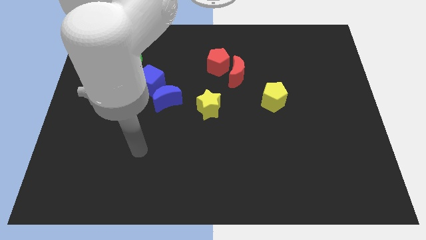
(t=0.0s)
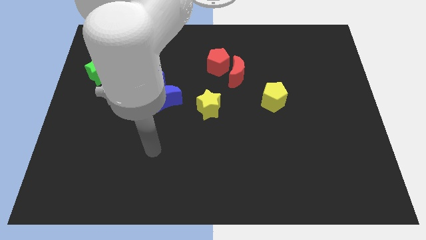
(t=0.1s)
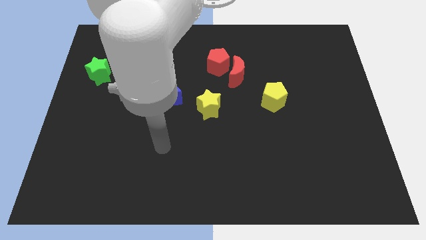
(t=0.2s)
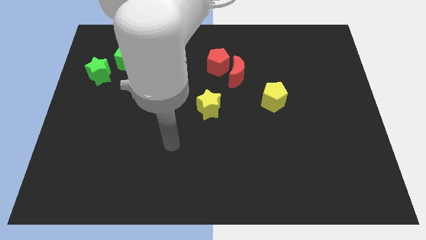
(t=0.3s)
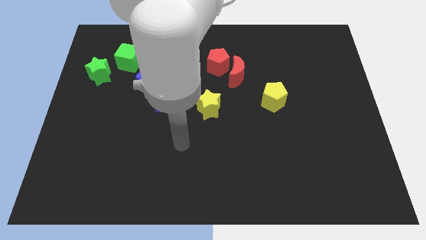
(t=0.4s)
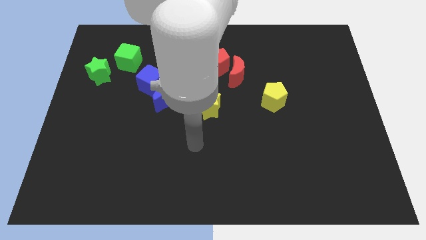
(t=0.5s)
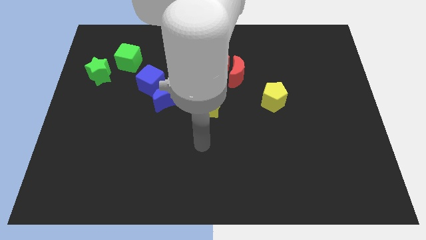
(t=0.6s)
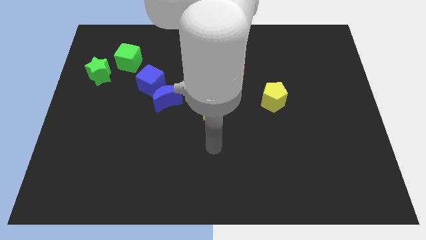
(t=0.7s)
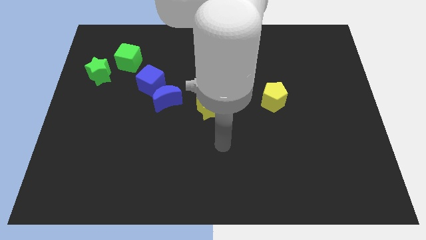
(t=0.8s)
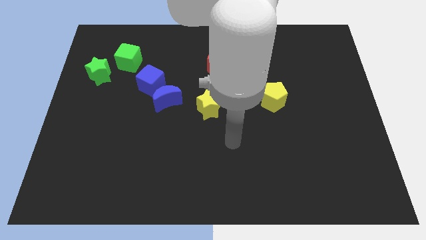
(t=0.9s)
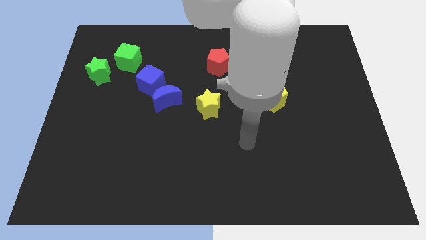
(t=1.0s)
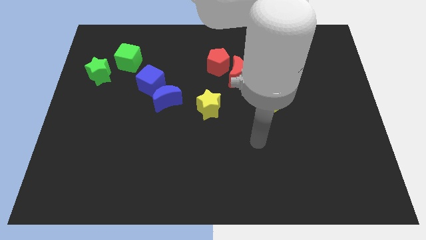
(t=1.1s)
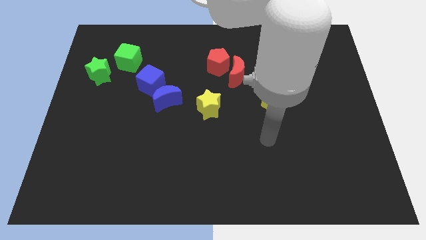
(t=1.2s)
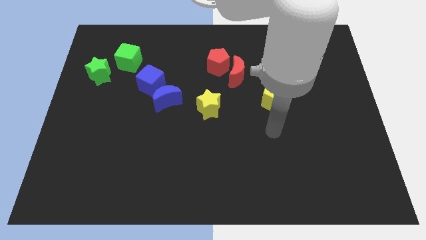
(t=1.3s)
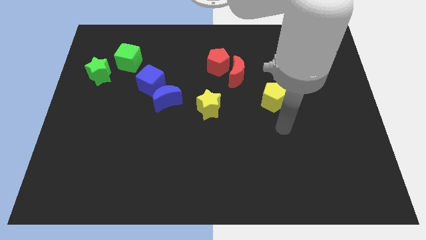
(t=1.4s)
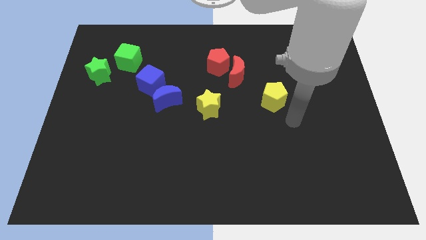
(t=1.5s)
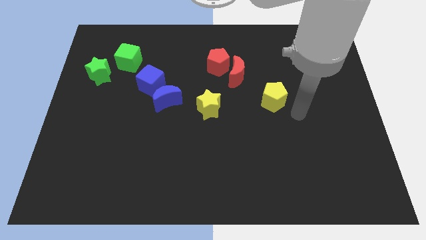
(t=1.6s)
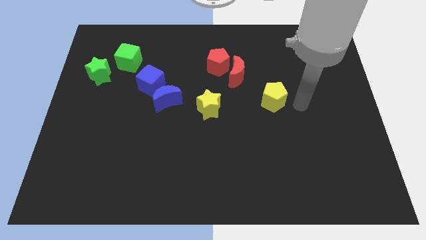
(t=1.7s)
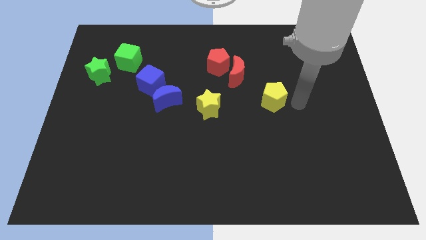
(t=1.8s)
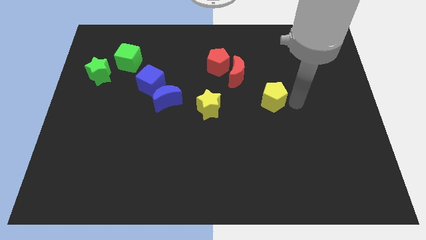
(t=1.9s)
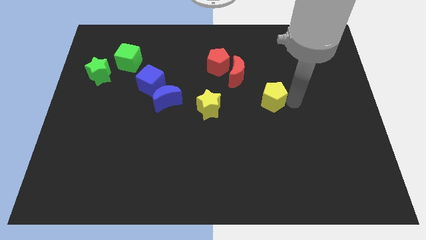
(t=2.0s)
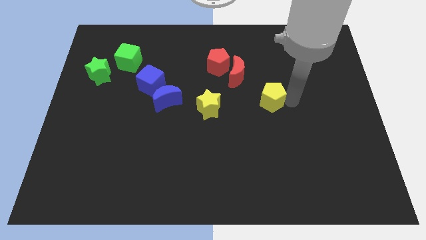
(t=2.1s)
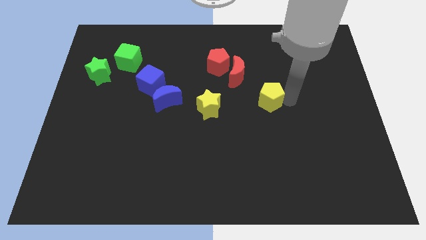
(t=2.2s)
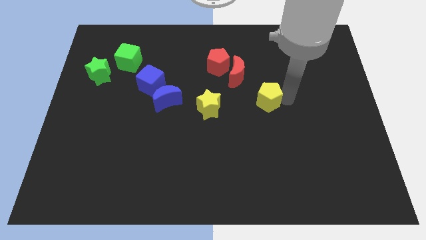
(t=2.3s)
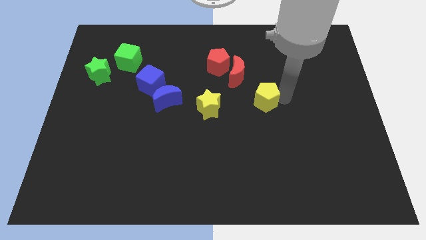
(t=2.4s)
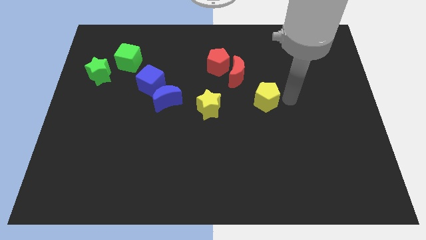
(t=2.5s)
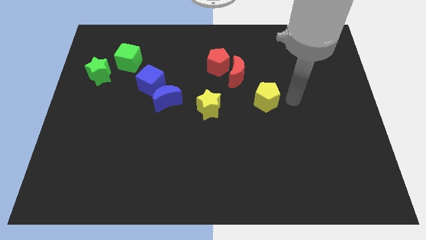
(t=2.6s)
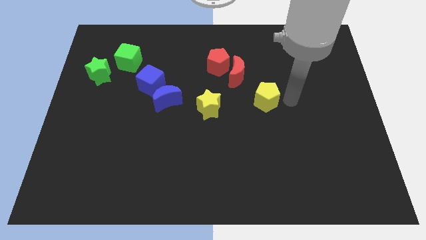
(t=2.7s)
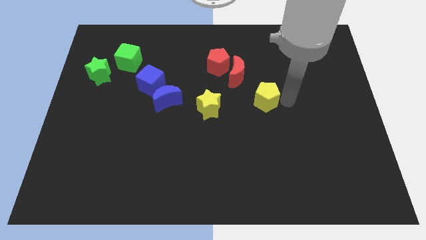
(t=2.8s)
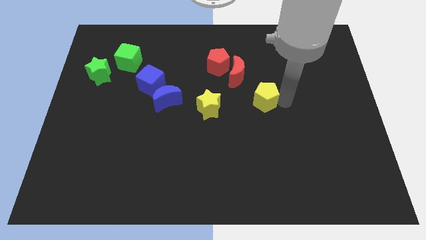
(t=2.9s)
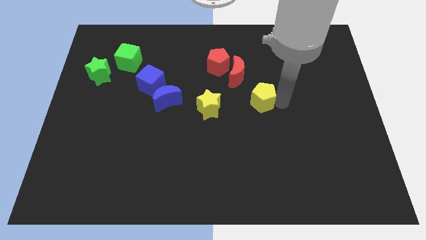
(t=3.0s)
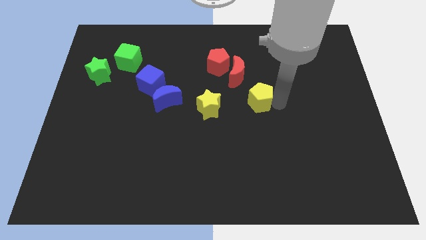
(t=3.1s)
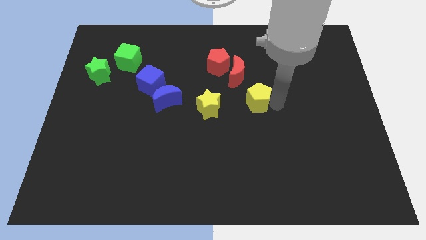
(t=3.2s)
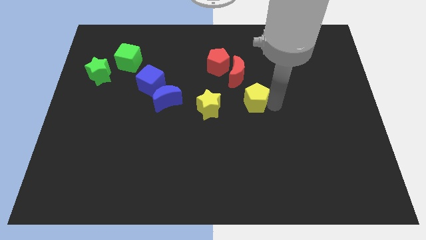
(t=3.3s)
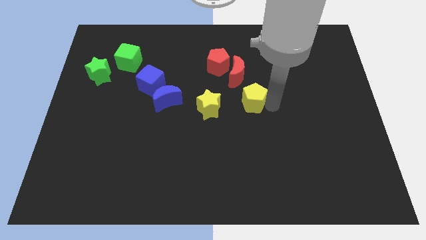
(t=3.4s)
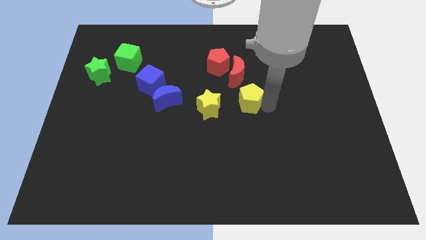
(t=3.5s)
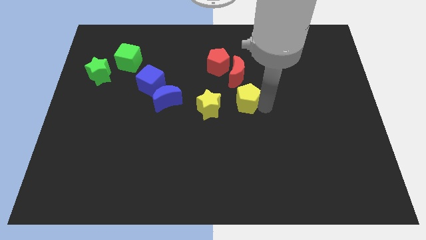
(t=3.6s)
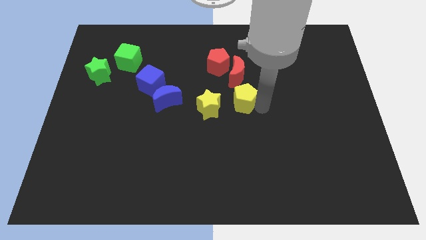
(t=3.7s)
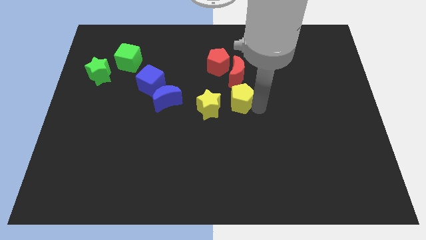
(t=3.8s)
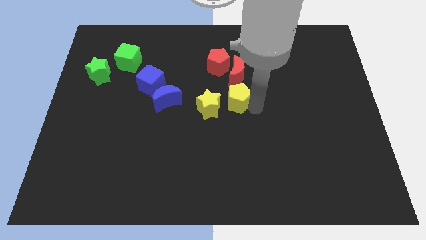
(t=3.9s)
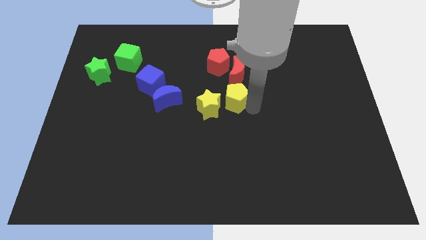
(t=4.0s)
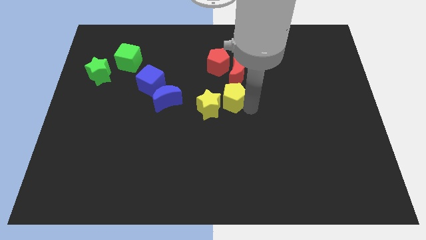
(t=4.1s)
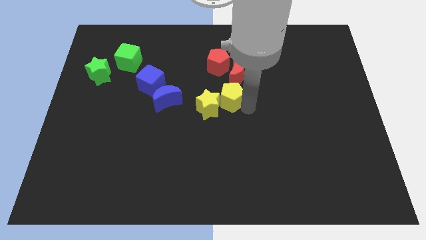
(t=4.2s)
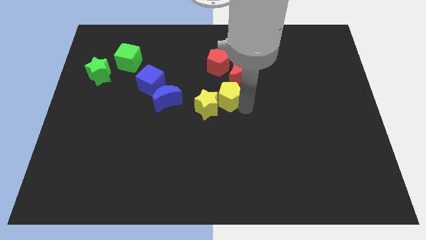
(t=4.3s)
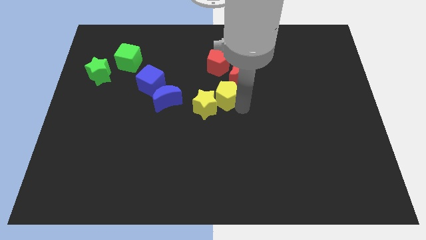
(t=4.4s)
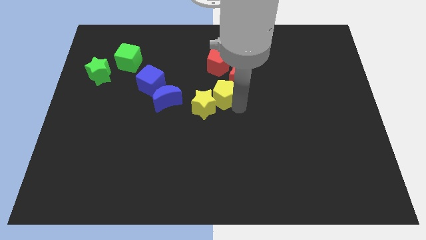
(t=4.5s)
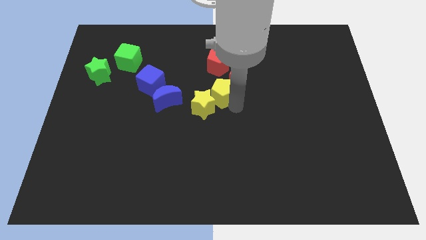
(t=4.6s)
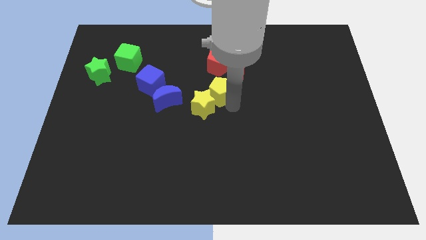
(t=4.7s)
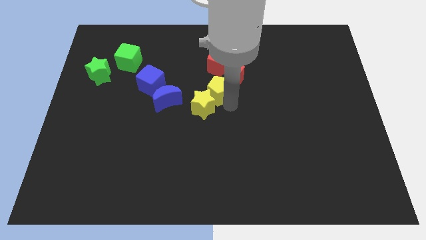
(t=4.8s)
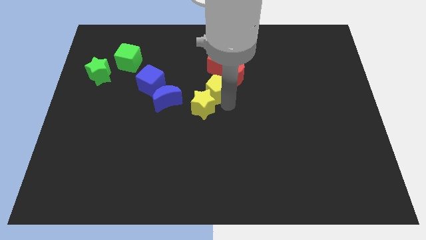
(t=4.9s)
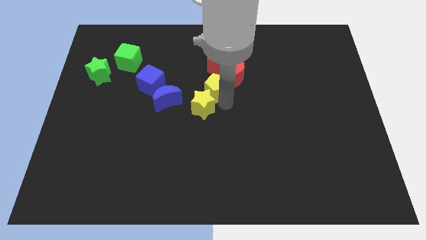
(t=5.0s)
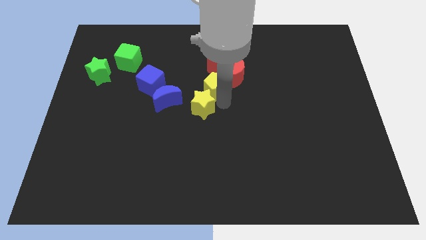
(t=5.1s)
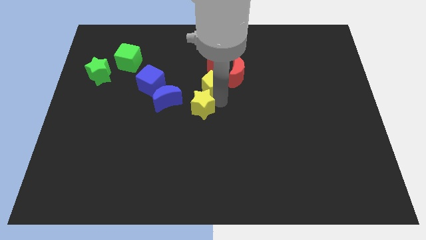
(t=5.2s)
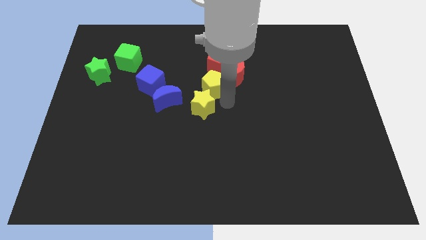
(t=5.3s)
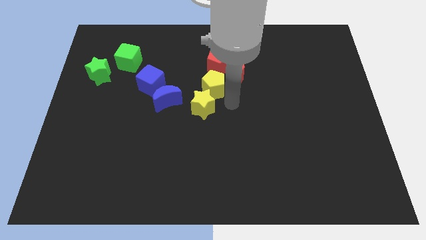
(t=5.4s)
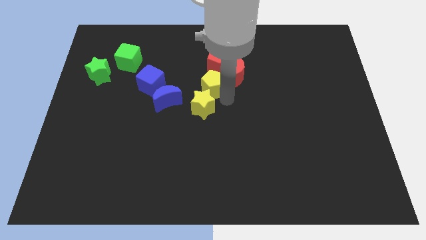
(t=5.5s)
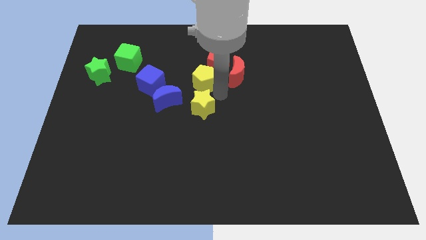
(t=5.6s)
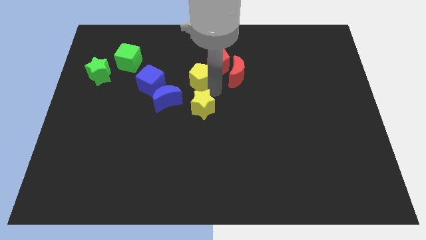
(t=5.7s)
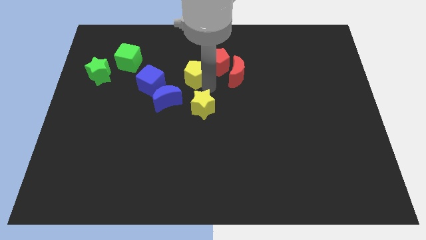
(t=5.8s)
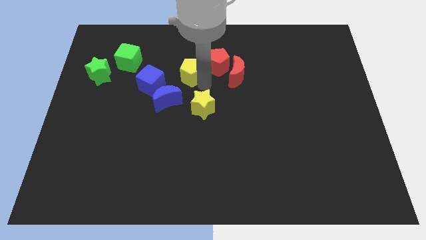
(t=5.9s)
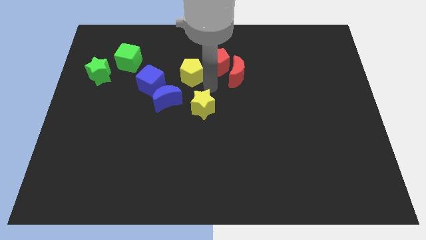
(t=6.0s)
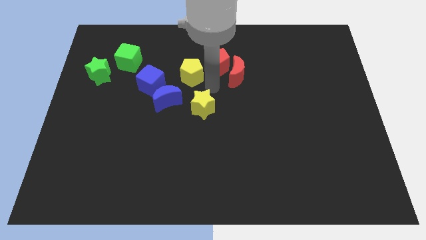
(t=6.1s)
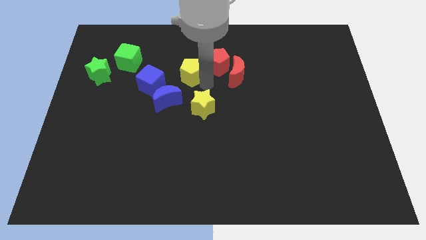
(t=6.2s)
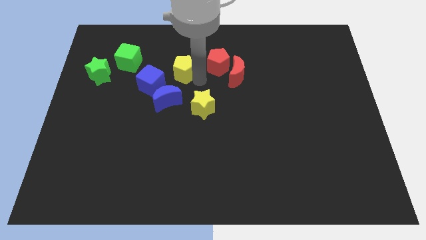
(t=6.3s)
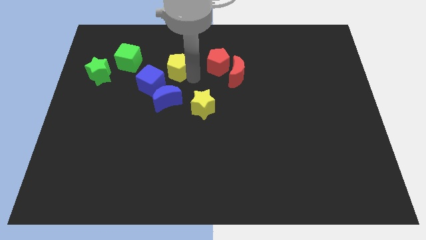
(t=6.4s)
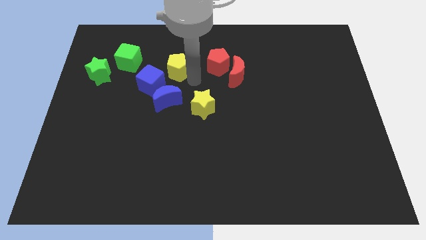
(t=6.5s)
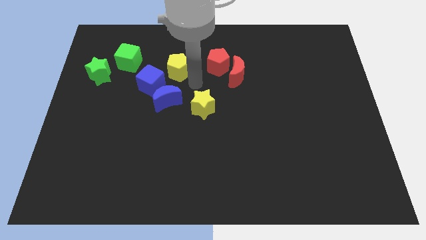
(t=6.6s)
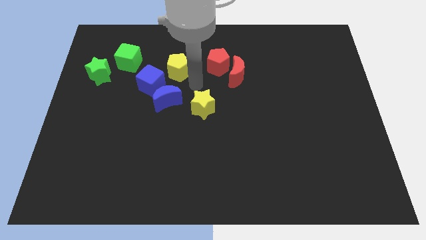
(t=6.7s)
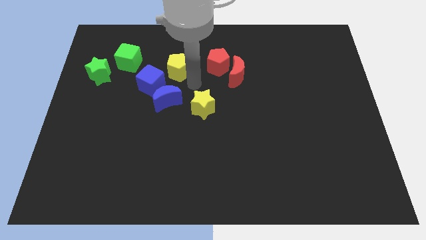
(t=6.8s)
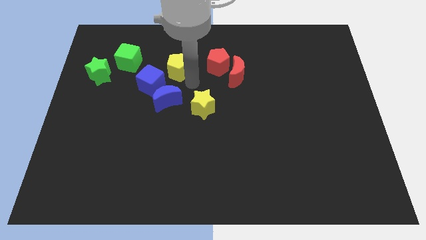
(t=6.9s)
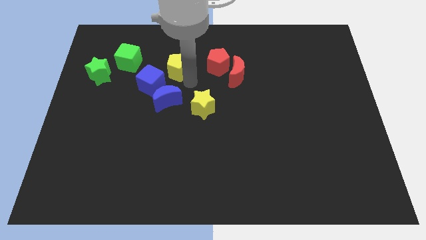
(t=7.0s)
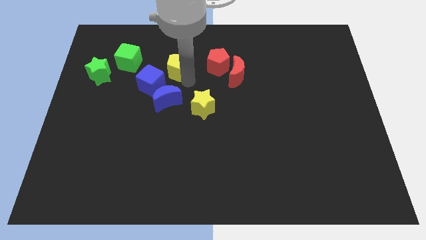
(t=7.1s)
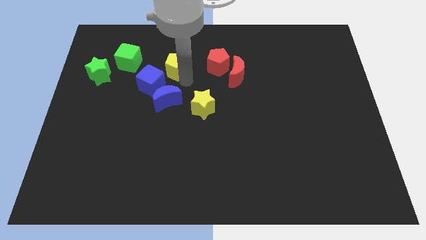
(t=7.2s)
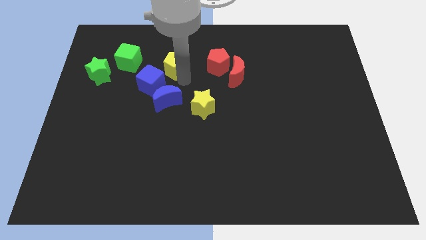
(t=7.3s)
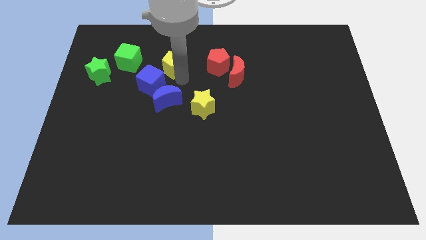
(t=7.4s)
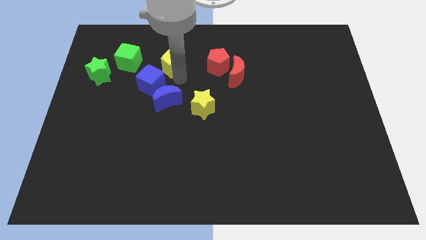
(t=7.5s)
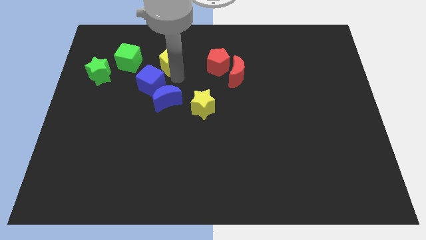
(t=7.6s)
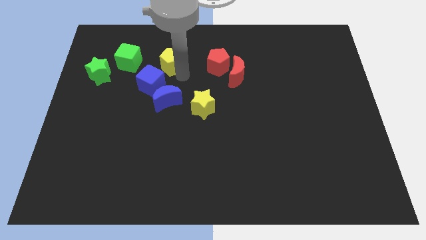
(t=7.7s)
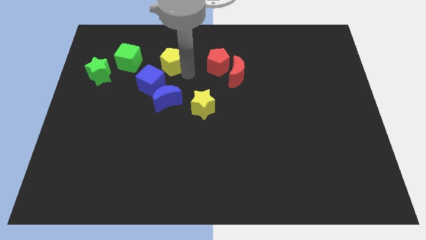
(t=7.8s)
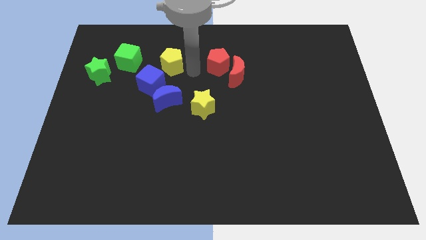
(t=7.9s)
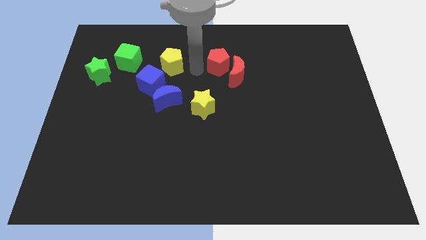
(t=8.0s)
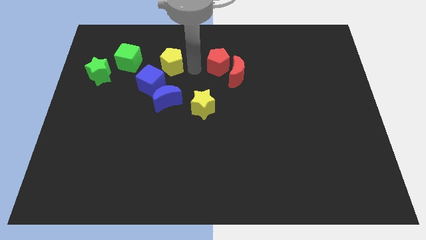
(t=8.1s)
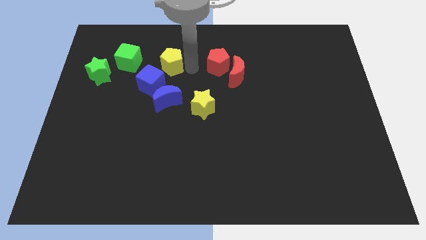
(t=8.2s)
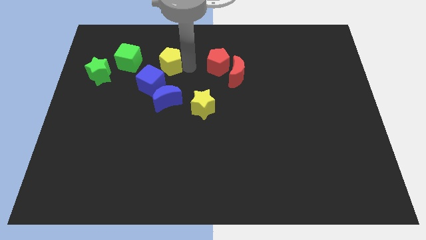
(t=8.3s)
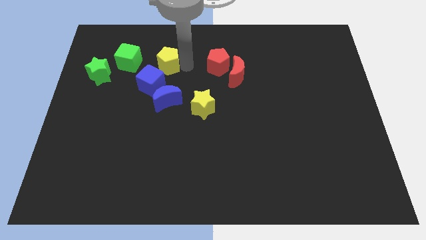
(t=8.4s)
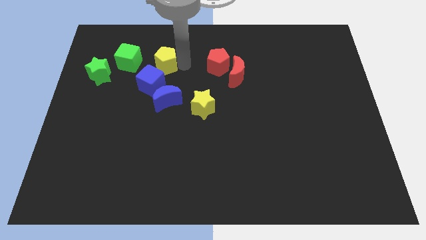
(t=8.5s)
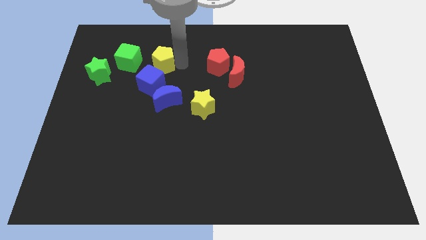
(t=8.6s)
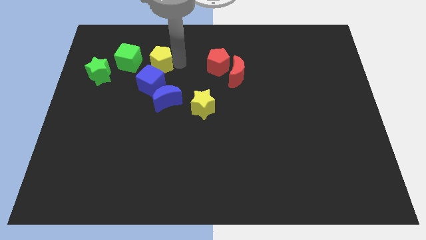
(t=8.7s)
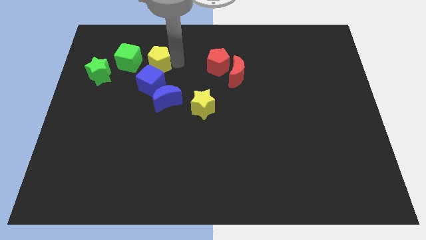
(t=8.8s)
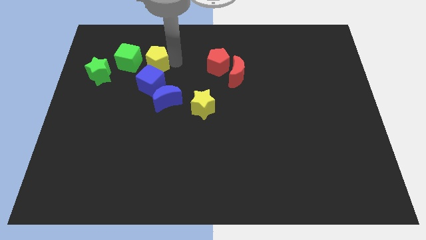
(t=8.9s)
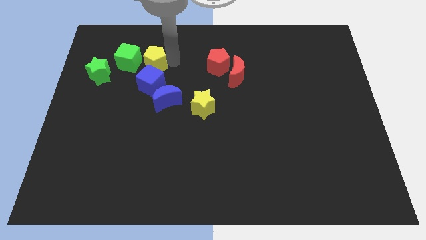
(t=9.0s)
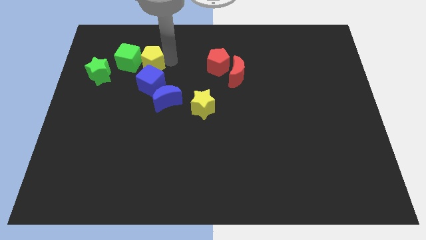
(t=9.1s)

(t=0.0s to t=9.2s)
move the yellow pentagon to the green cube
